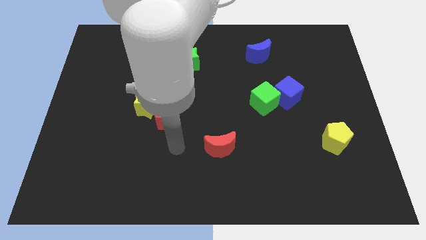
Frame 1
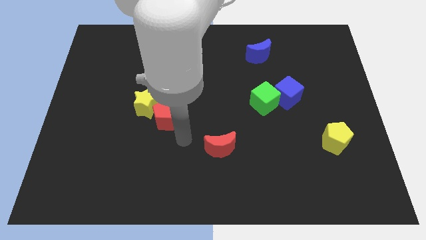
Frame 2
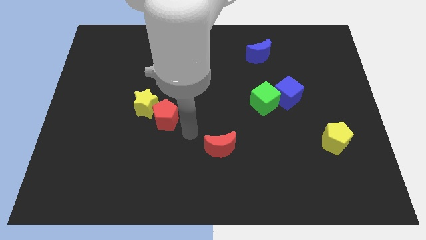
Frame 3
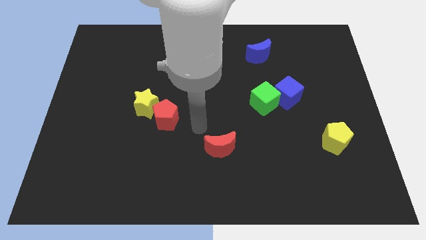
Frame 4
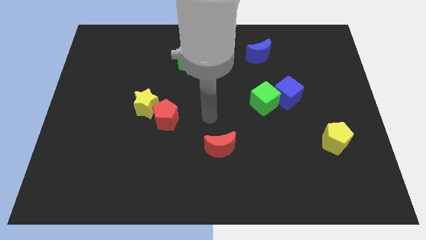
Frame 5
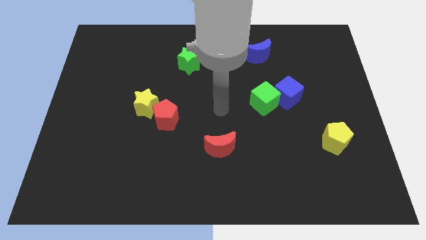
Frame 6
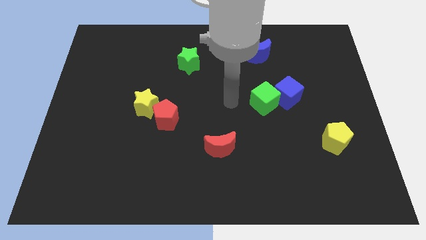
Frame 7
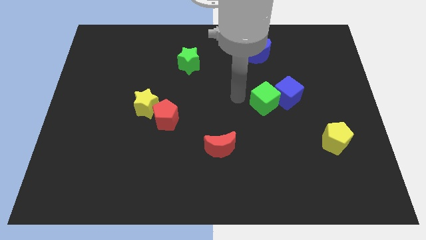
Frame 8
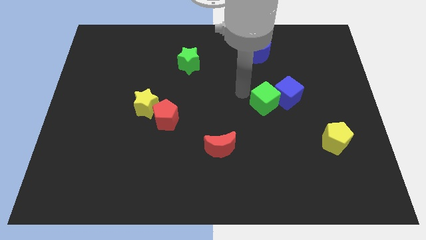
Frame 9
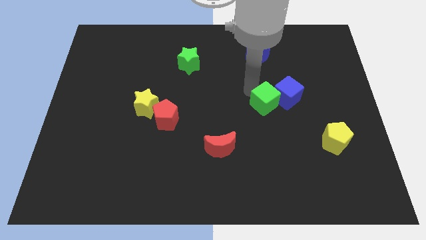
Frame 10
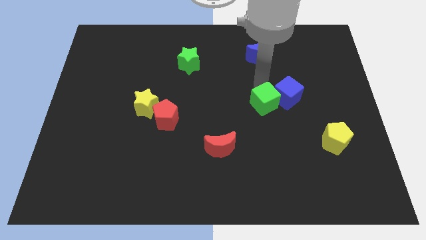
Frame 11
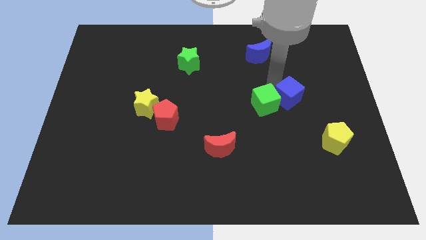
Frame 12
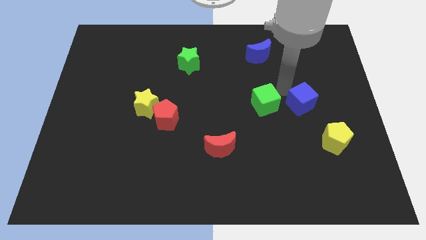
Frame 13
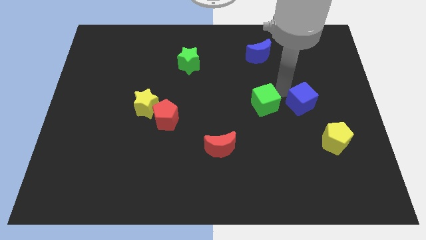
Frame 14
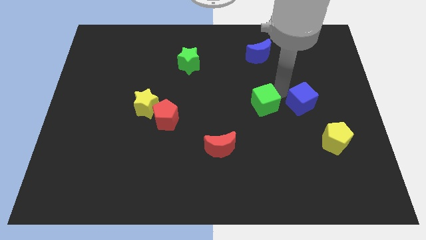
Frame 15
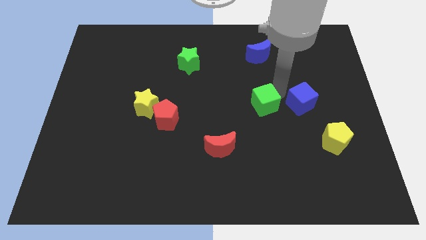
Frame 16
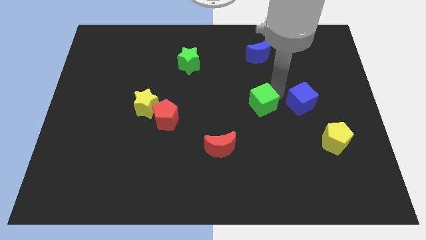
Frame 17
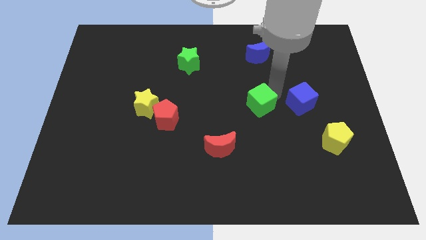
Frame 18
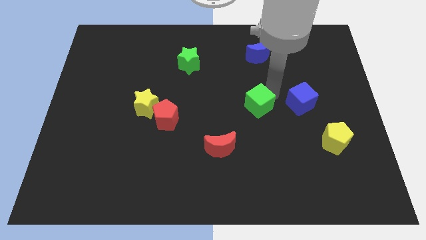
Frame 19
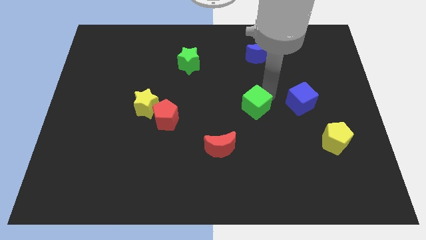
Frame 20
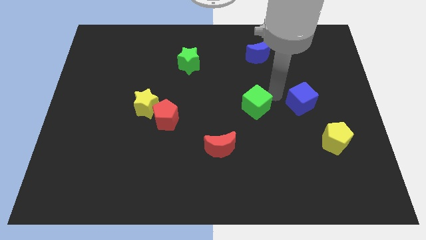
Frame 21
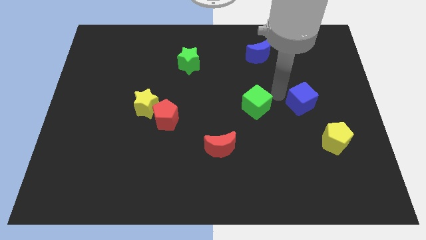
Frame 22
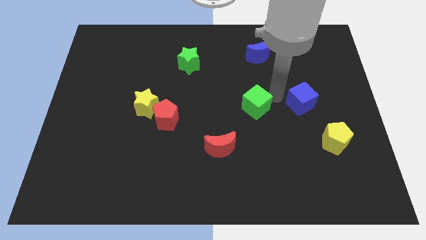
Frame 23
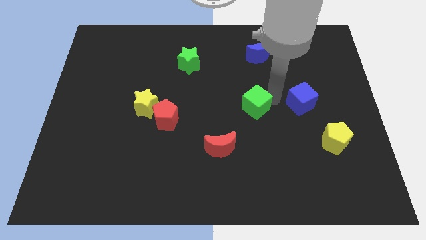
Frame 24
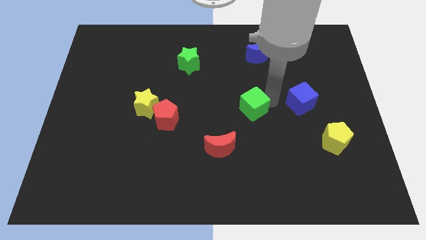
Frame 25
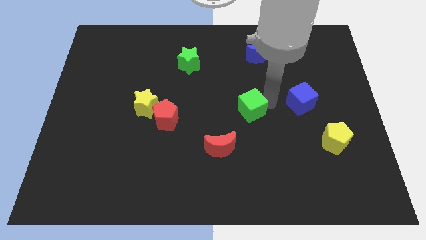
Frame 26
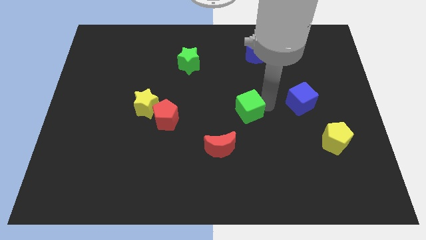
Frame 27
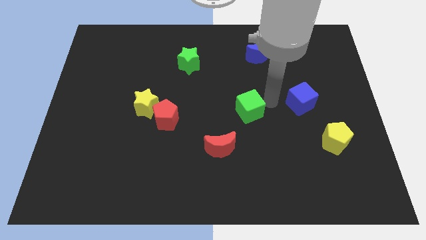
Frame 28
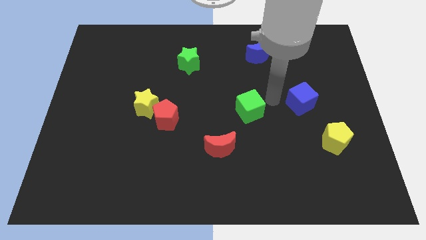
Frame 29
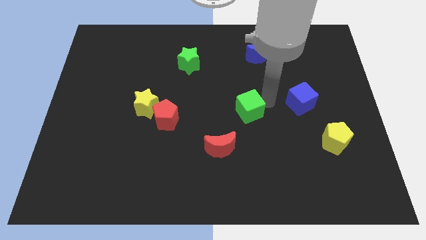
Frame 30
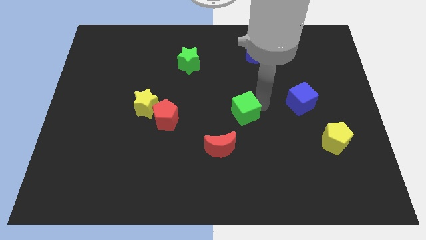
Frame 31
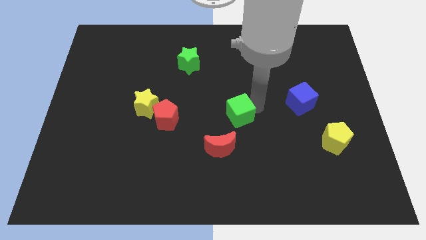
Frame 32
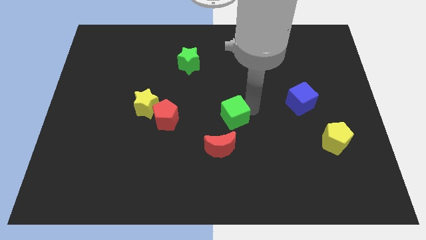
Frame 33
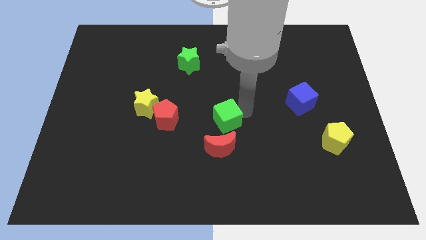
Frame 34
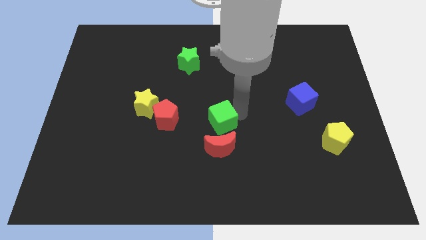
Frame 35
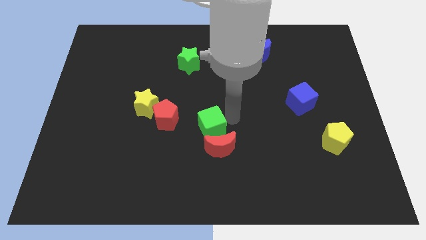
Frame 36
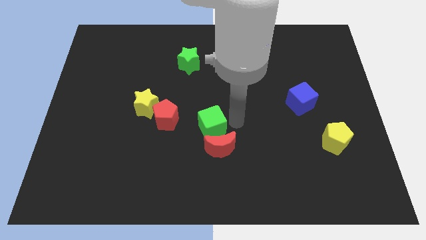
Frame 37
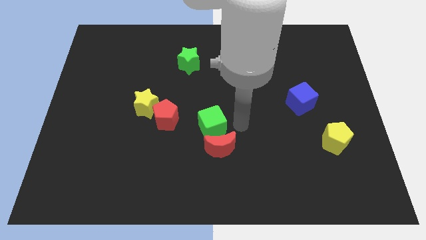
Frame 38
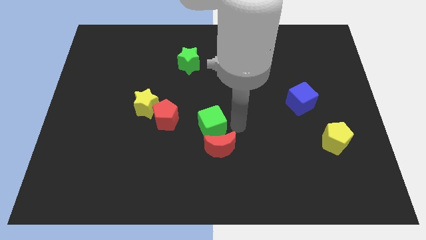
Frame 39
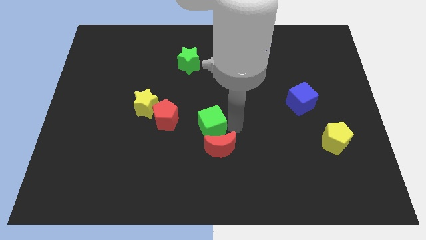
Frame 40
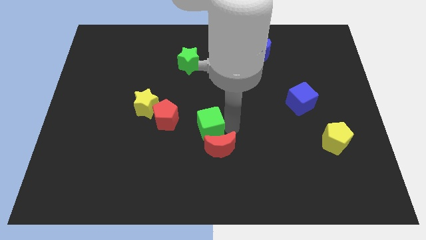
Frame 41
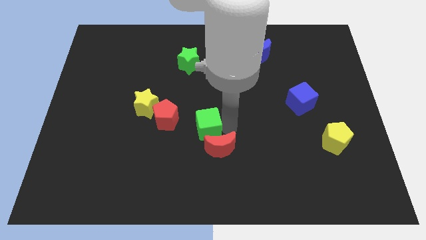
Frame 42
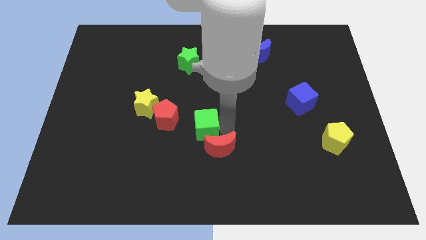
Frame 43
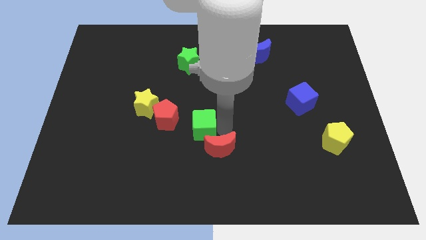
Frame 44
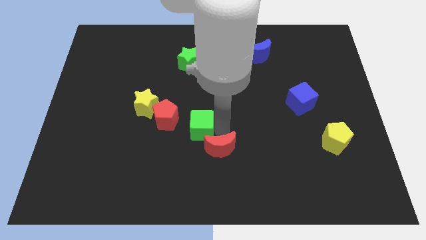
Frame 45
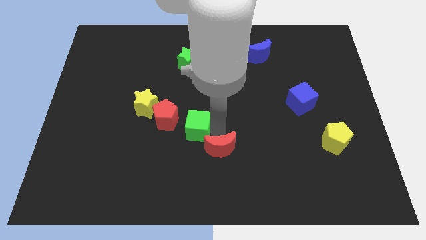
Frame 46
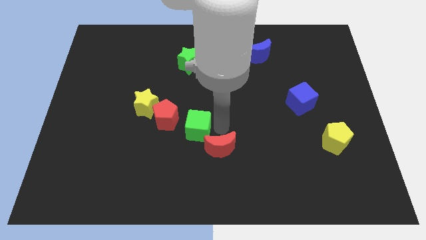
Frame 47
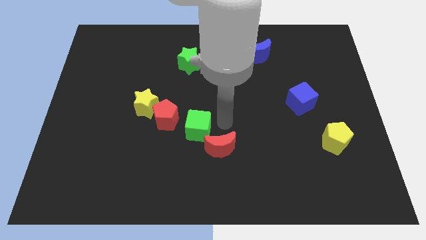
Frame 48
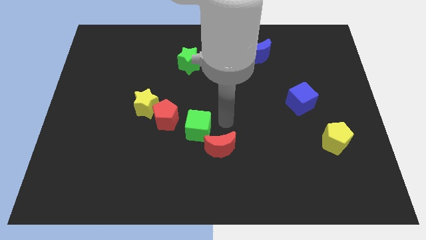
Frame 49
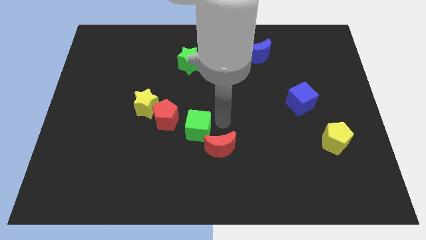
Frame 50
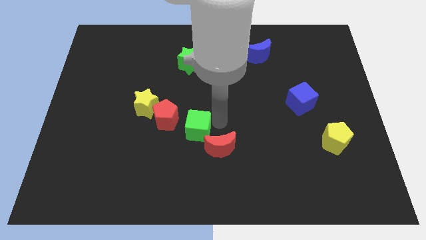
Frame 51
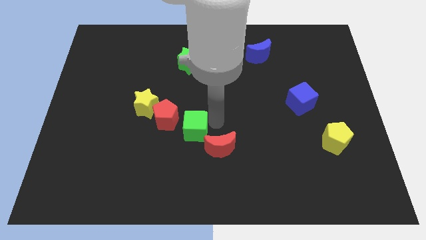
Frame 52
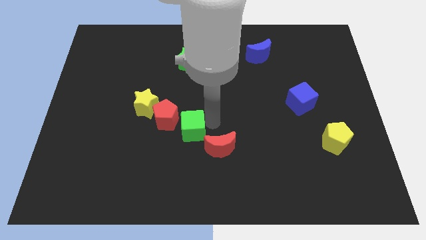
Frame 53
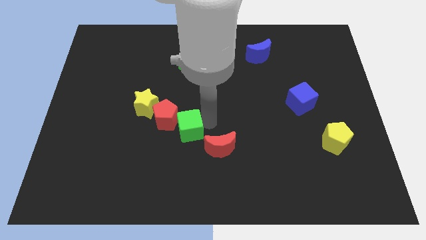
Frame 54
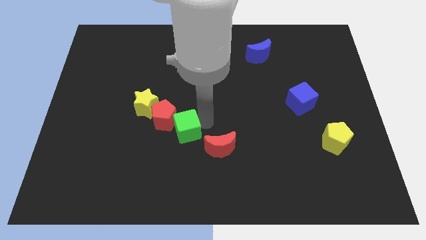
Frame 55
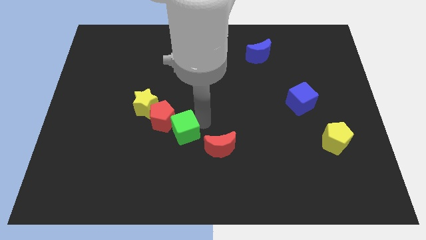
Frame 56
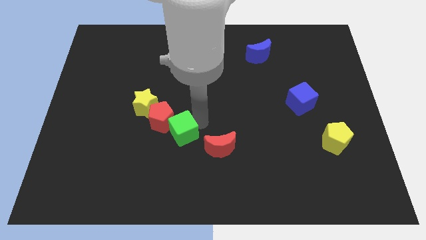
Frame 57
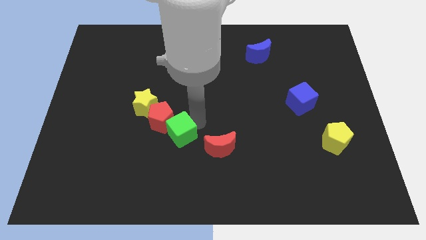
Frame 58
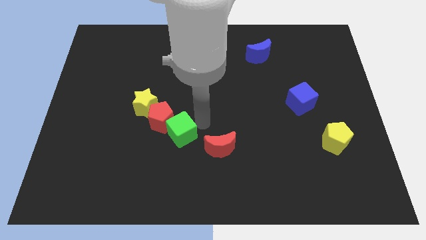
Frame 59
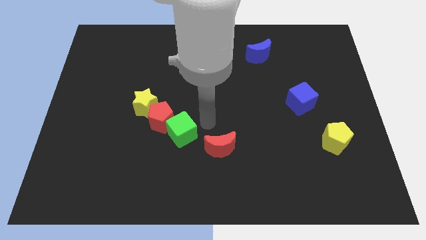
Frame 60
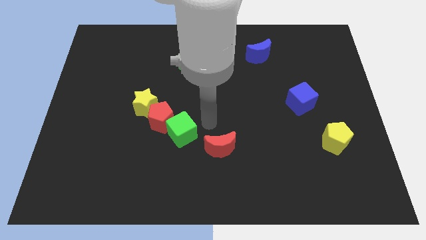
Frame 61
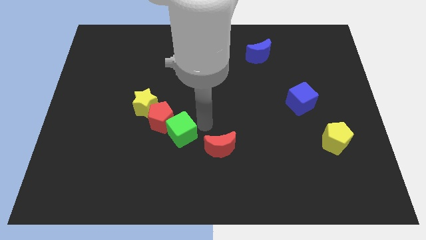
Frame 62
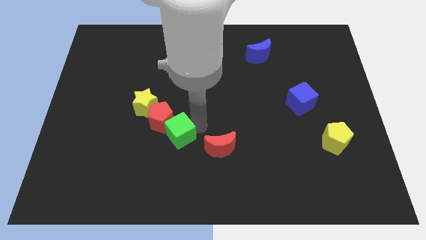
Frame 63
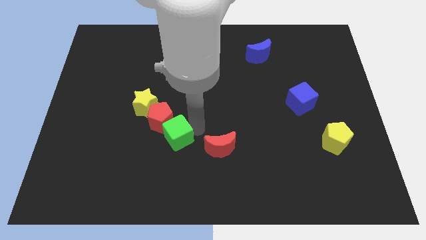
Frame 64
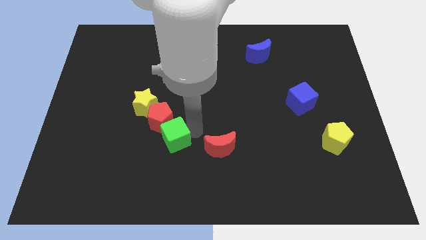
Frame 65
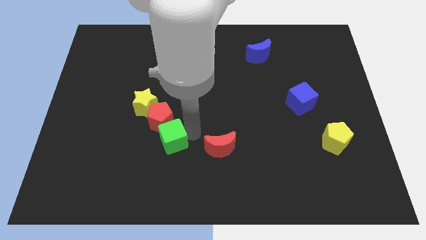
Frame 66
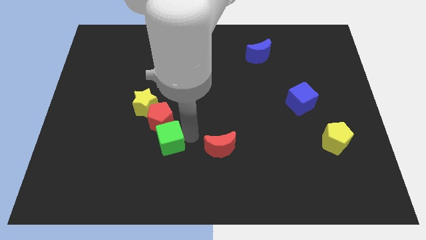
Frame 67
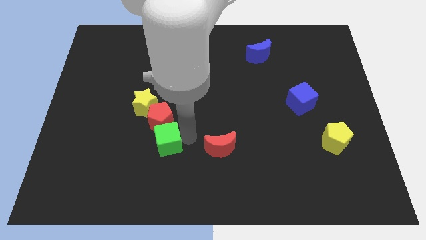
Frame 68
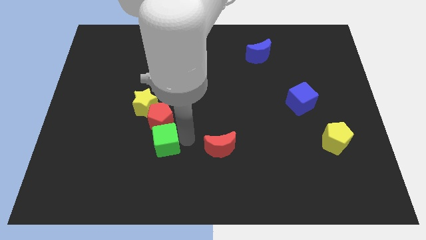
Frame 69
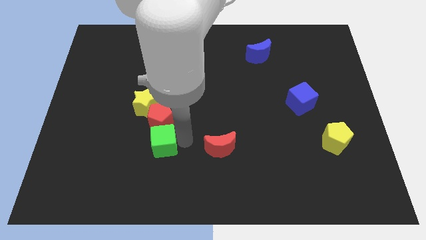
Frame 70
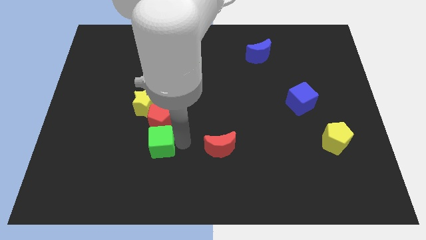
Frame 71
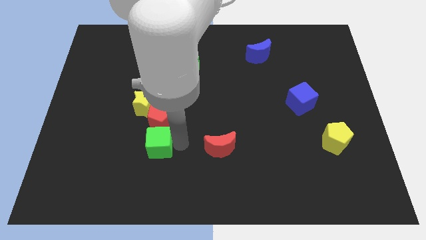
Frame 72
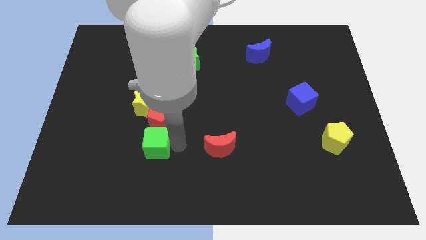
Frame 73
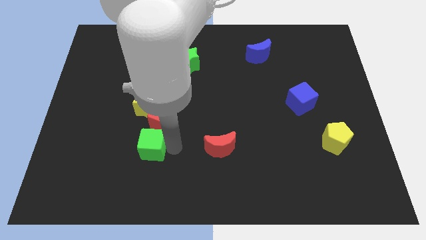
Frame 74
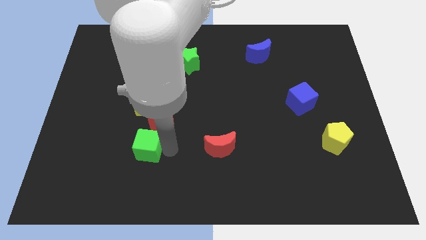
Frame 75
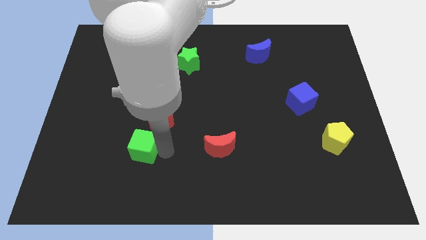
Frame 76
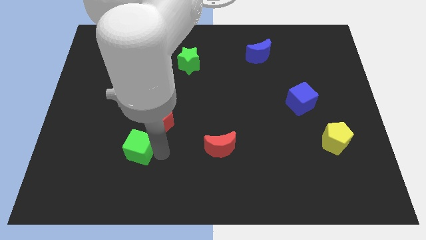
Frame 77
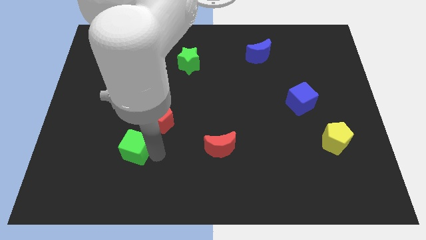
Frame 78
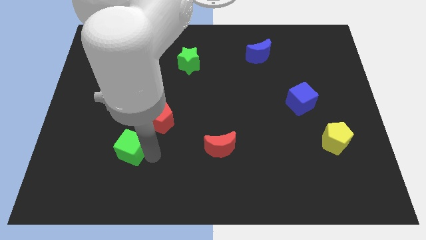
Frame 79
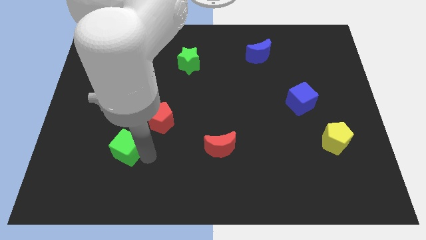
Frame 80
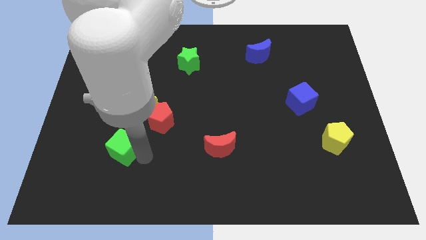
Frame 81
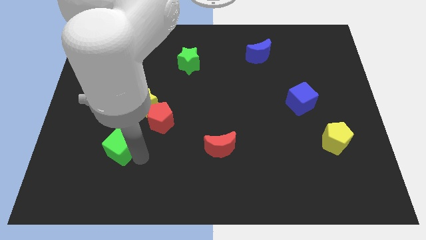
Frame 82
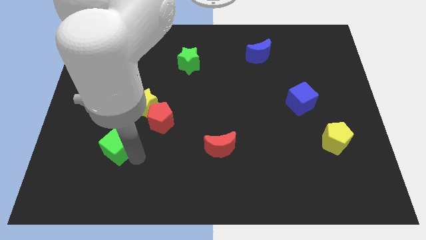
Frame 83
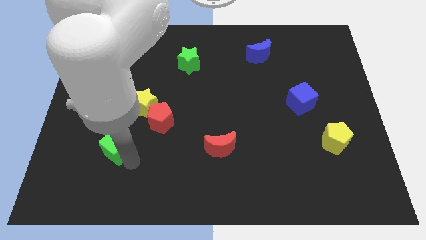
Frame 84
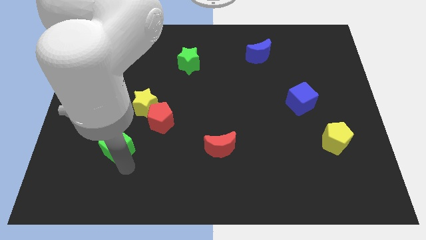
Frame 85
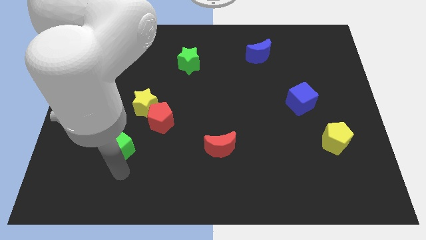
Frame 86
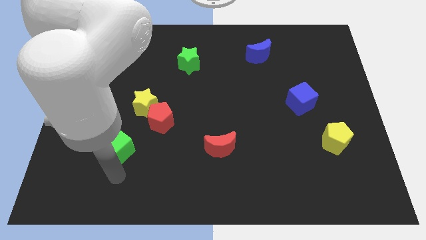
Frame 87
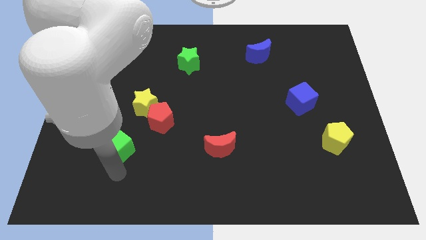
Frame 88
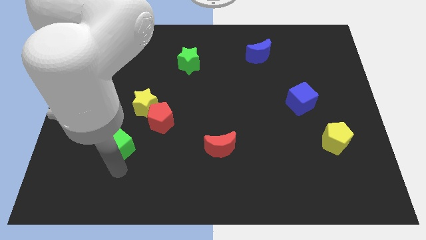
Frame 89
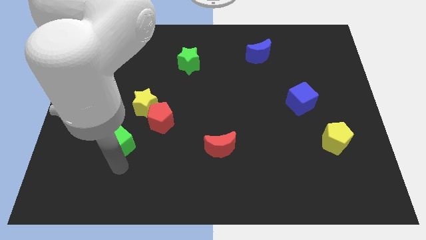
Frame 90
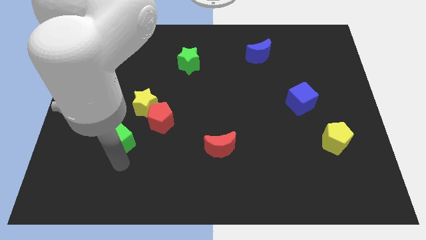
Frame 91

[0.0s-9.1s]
push the green cube to the bottom left of the yellow star
